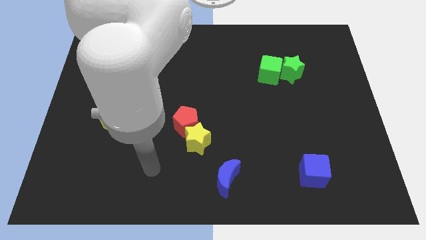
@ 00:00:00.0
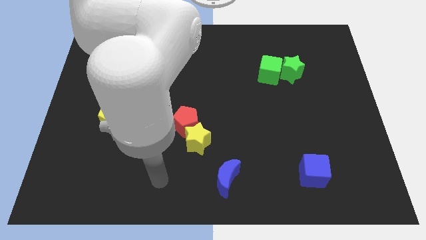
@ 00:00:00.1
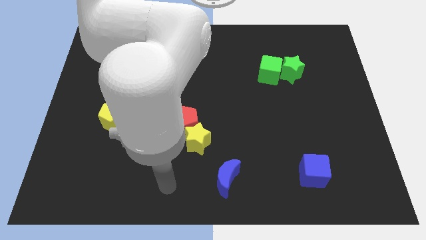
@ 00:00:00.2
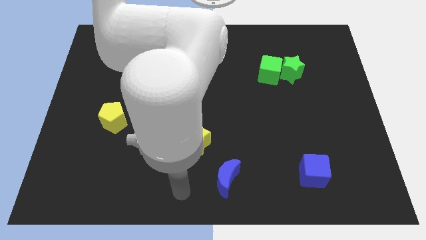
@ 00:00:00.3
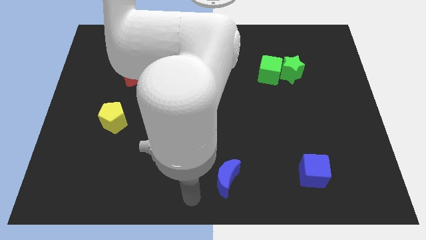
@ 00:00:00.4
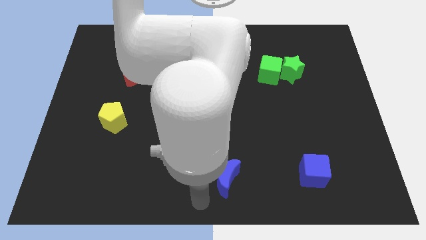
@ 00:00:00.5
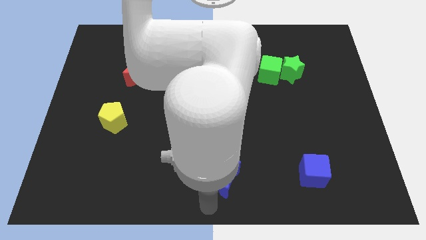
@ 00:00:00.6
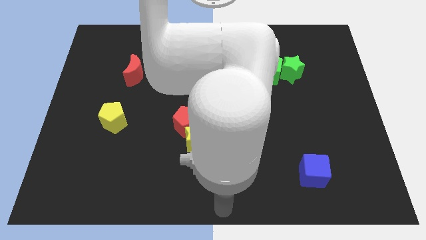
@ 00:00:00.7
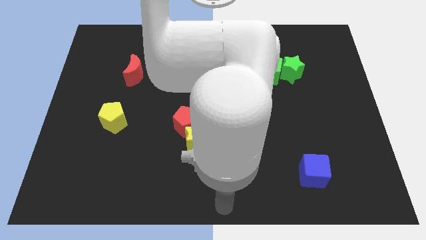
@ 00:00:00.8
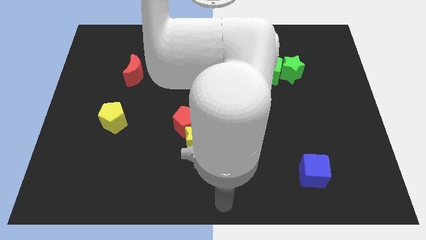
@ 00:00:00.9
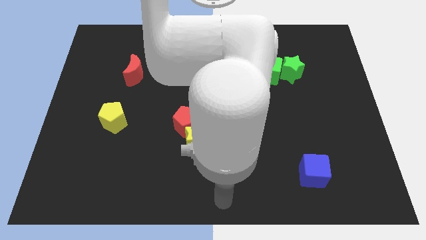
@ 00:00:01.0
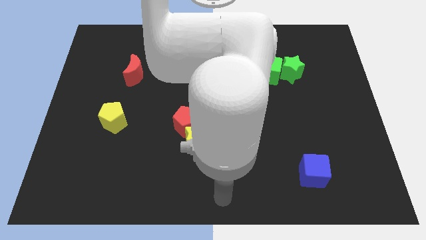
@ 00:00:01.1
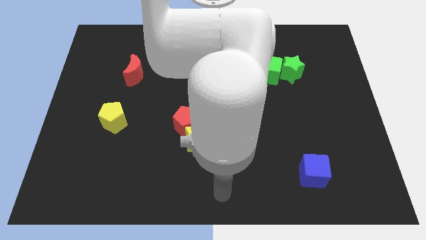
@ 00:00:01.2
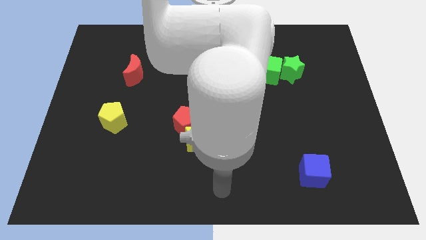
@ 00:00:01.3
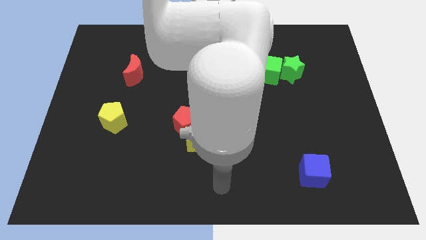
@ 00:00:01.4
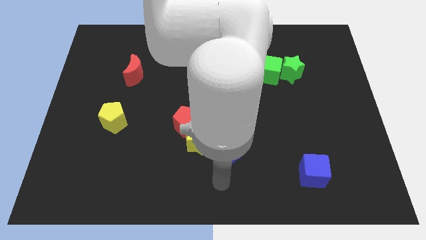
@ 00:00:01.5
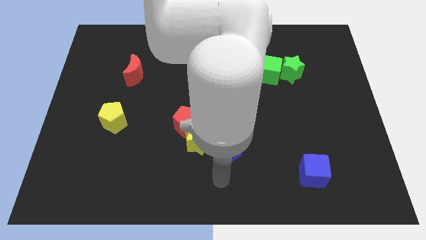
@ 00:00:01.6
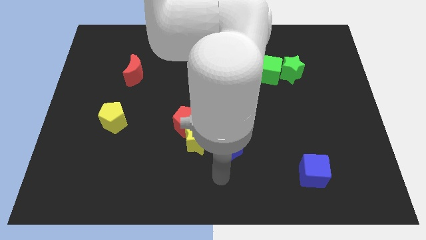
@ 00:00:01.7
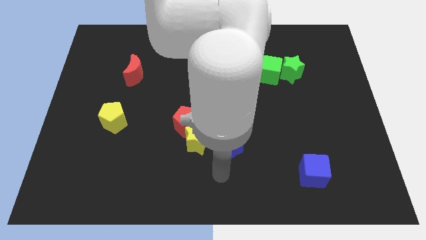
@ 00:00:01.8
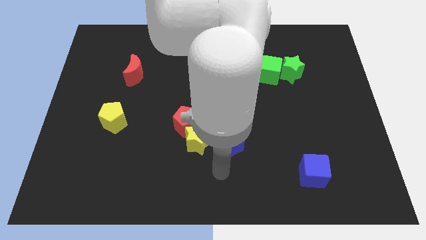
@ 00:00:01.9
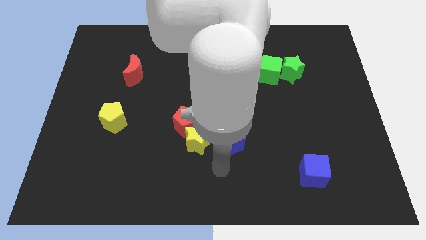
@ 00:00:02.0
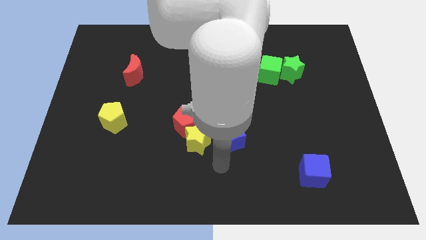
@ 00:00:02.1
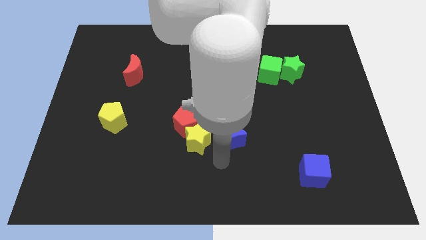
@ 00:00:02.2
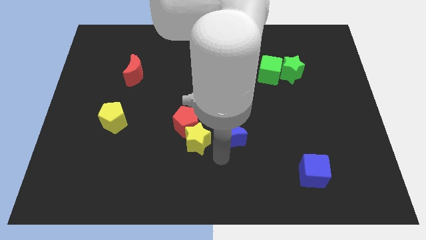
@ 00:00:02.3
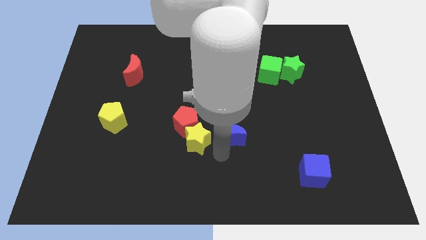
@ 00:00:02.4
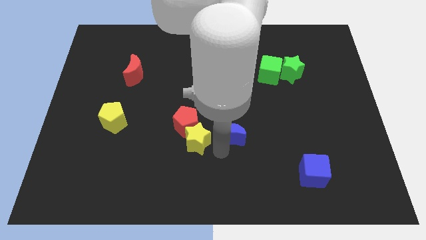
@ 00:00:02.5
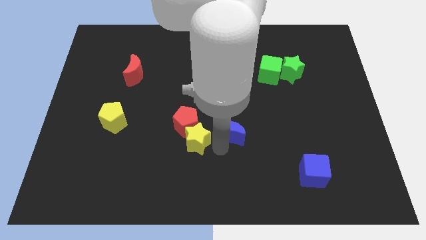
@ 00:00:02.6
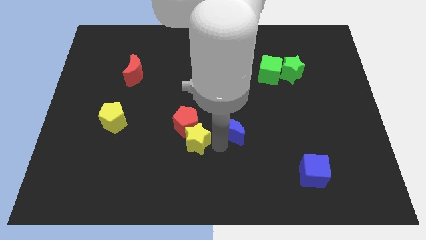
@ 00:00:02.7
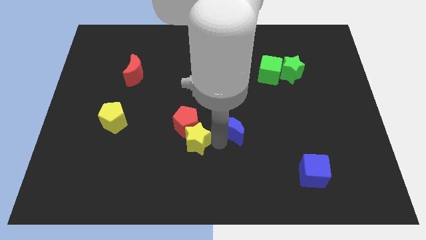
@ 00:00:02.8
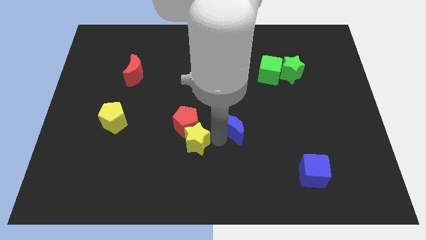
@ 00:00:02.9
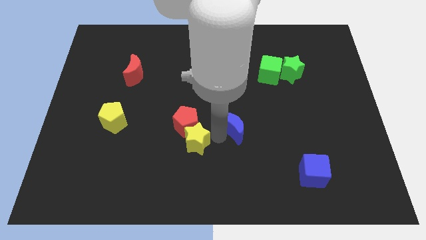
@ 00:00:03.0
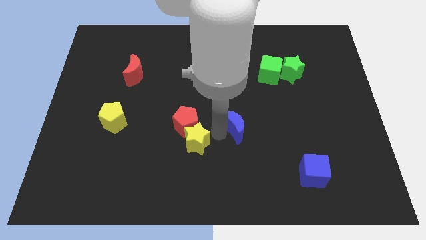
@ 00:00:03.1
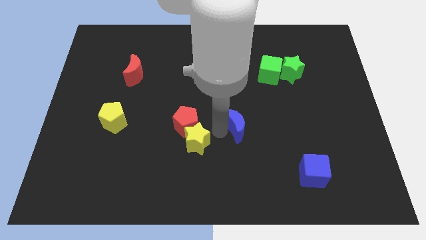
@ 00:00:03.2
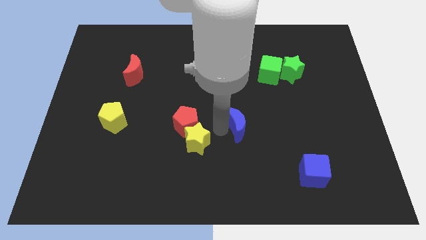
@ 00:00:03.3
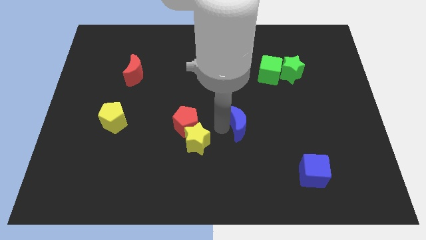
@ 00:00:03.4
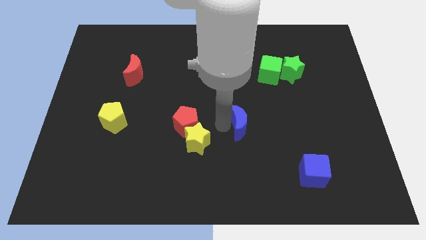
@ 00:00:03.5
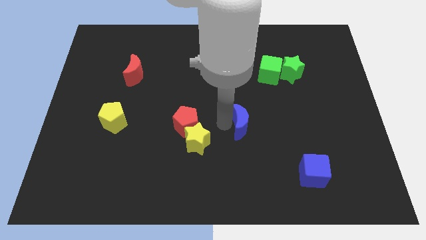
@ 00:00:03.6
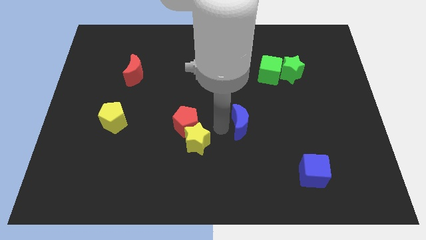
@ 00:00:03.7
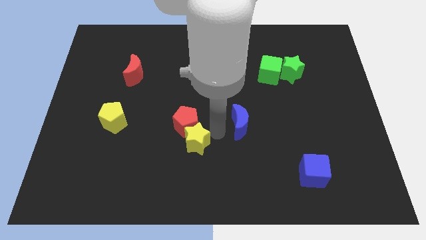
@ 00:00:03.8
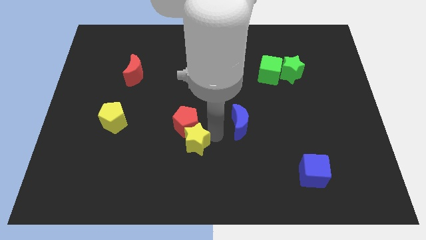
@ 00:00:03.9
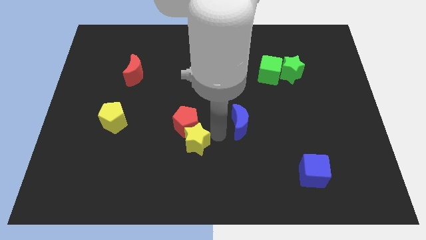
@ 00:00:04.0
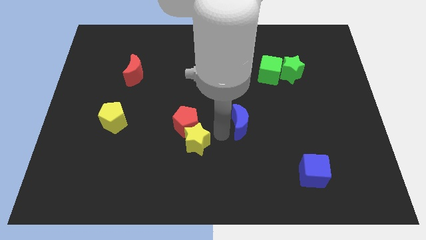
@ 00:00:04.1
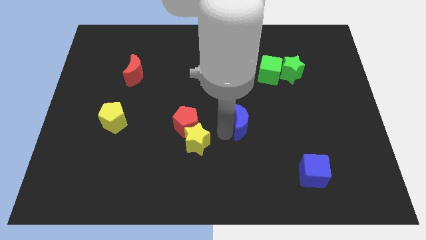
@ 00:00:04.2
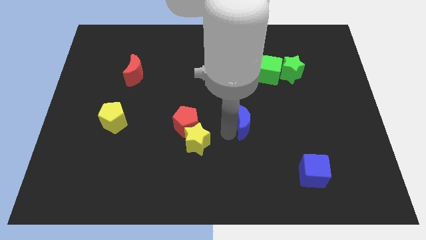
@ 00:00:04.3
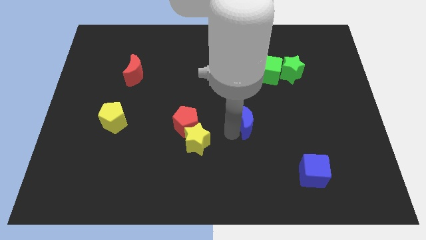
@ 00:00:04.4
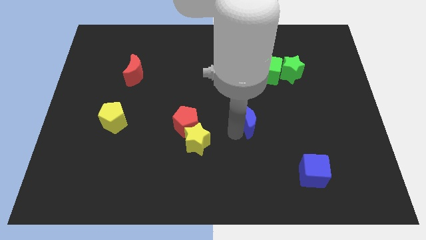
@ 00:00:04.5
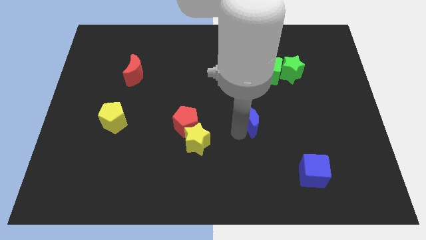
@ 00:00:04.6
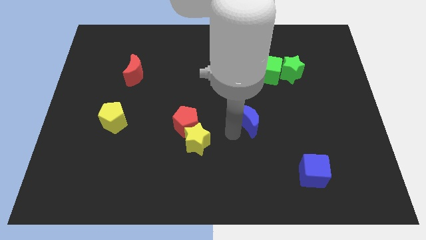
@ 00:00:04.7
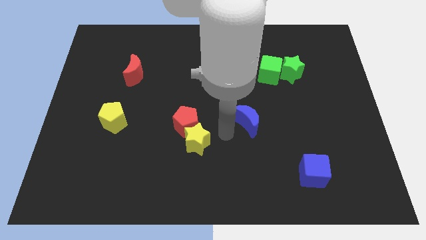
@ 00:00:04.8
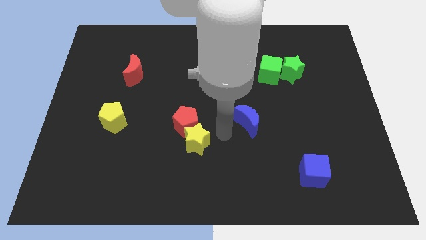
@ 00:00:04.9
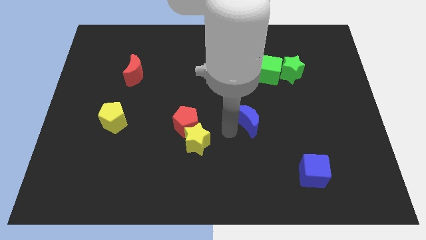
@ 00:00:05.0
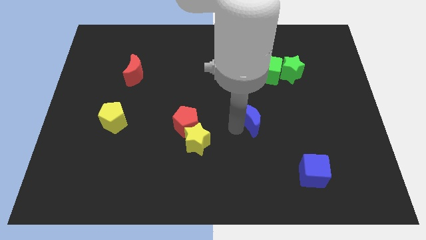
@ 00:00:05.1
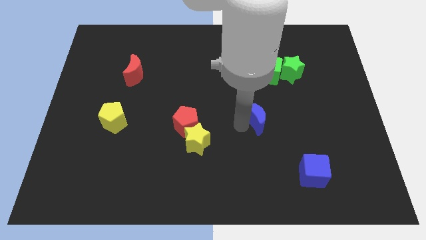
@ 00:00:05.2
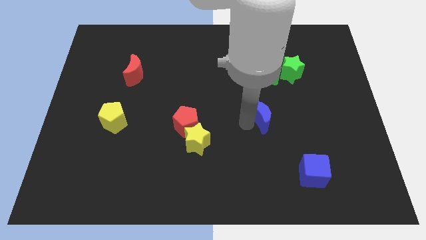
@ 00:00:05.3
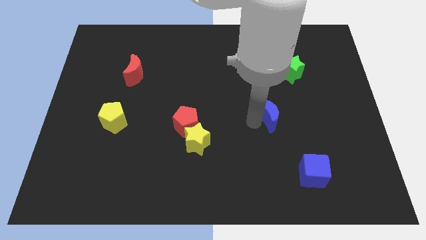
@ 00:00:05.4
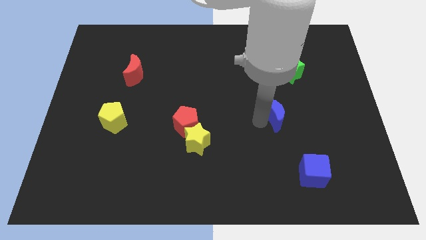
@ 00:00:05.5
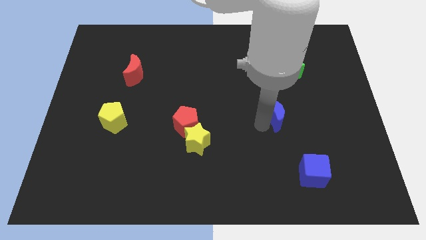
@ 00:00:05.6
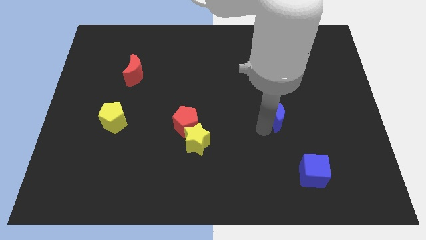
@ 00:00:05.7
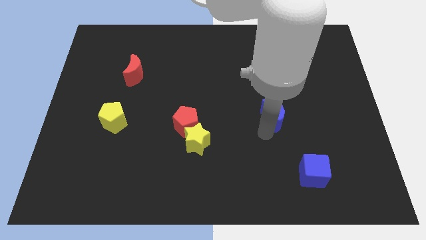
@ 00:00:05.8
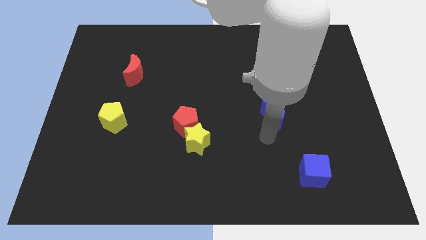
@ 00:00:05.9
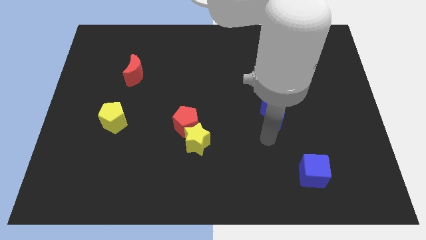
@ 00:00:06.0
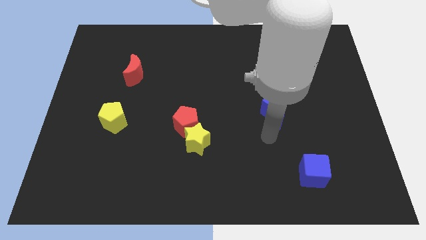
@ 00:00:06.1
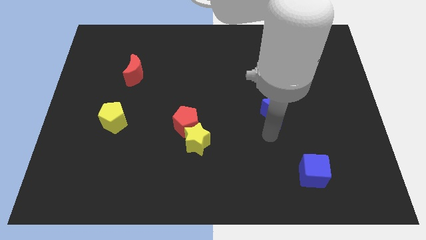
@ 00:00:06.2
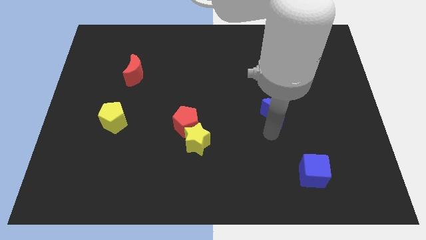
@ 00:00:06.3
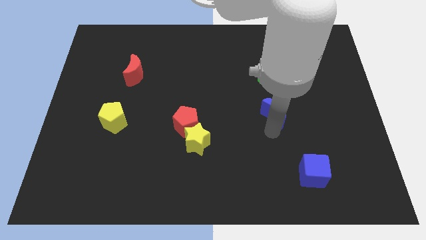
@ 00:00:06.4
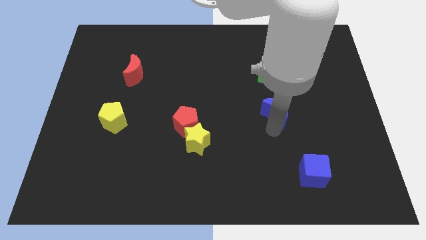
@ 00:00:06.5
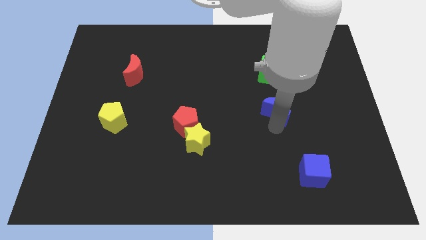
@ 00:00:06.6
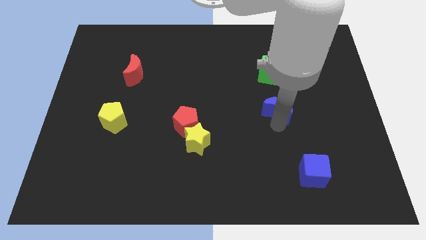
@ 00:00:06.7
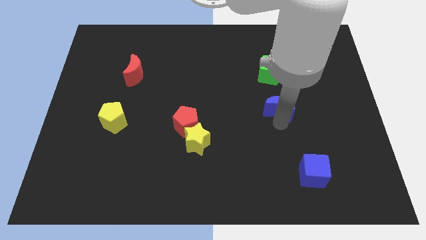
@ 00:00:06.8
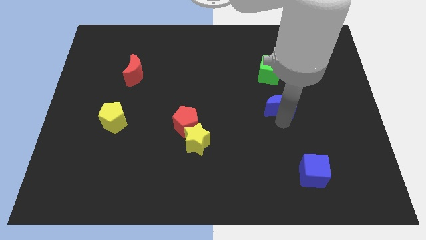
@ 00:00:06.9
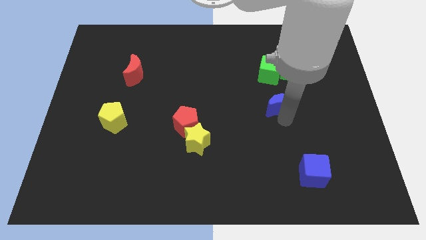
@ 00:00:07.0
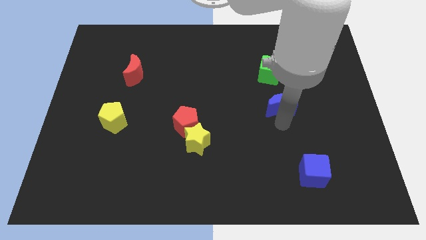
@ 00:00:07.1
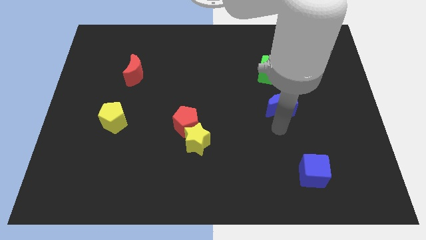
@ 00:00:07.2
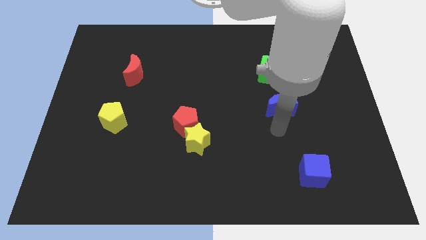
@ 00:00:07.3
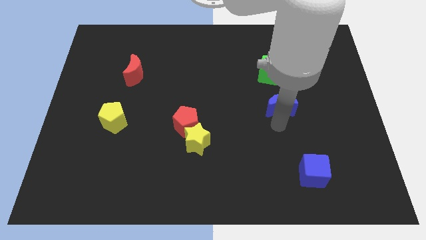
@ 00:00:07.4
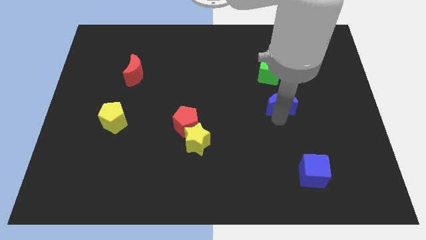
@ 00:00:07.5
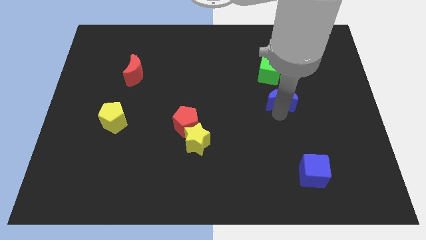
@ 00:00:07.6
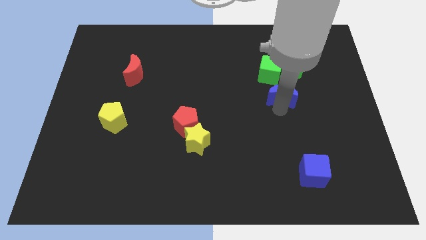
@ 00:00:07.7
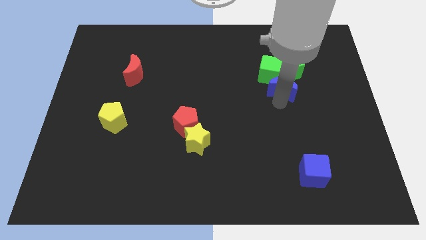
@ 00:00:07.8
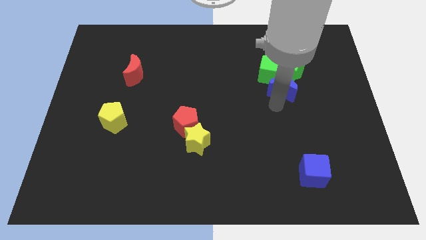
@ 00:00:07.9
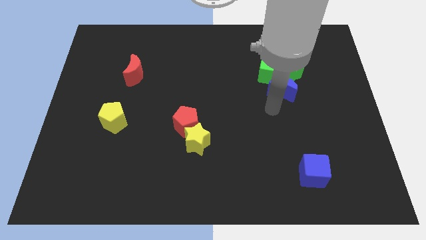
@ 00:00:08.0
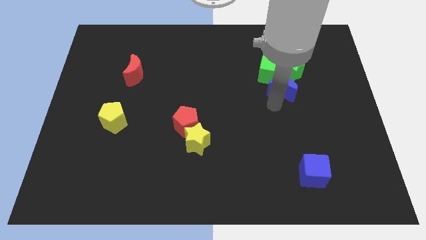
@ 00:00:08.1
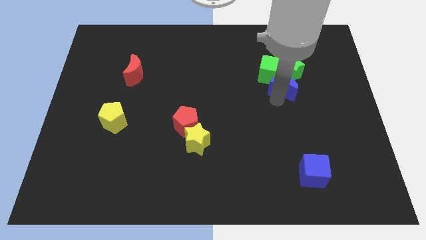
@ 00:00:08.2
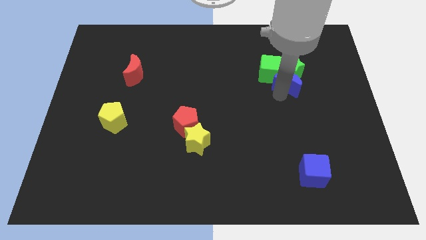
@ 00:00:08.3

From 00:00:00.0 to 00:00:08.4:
slide the blue moon to the green star
